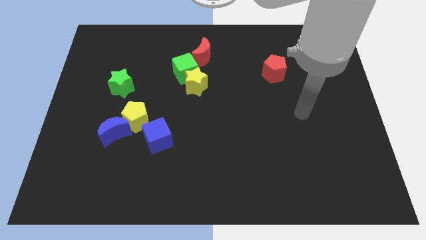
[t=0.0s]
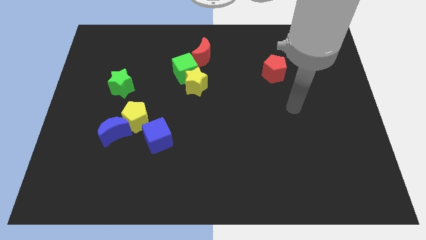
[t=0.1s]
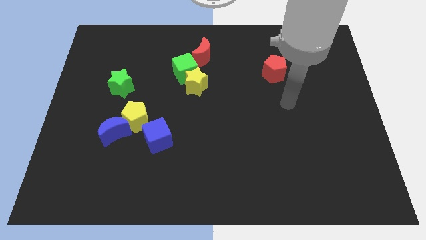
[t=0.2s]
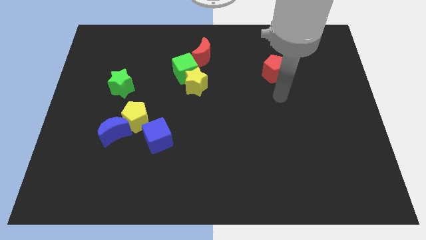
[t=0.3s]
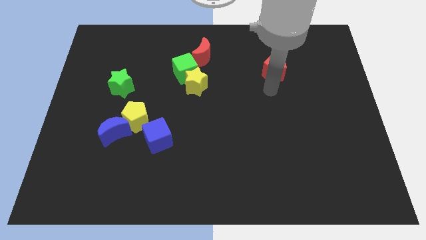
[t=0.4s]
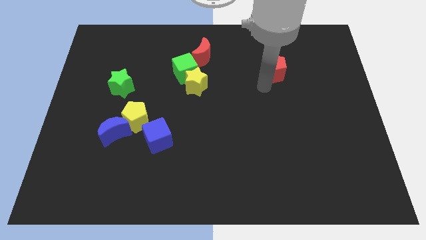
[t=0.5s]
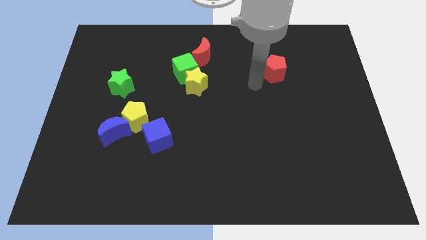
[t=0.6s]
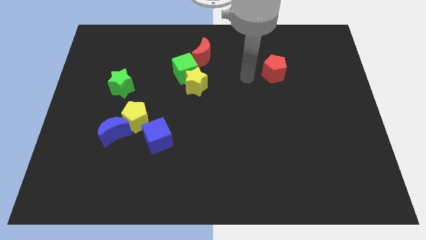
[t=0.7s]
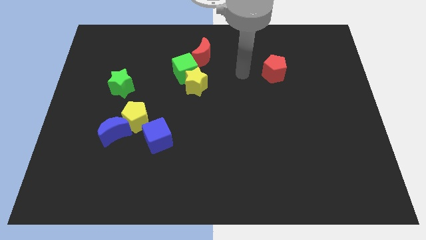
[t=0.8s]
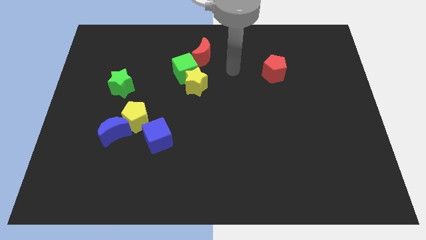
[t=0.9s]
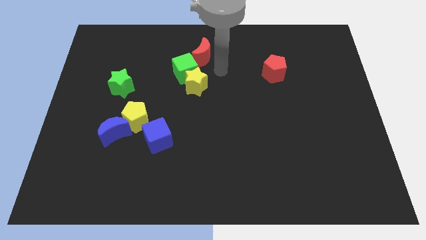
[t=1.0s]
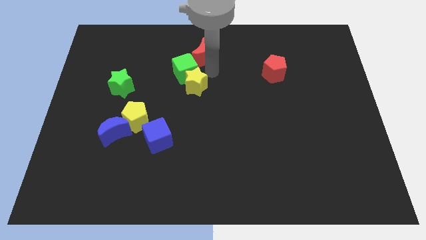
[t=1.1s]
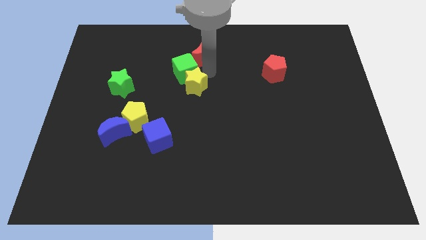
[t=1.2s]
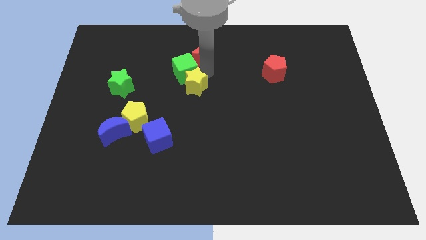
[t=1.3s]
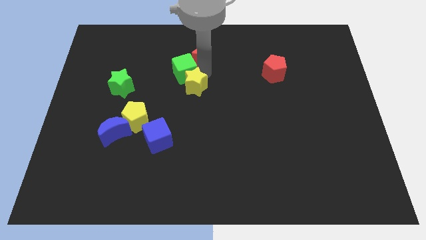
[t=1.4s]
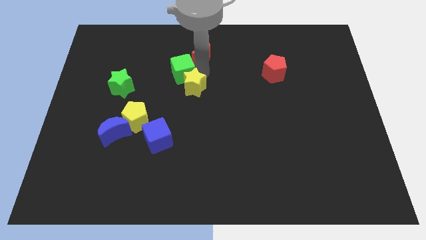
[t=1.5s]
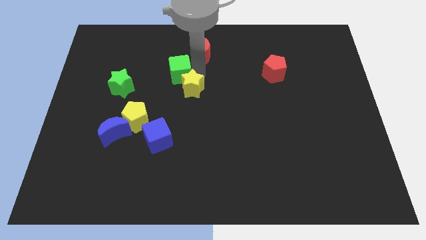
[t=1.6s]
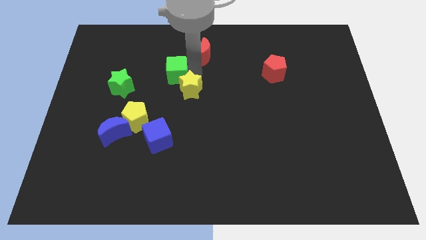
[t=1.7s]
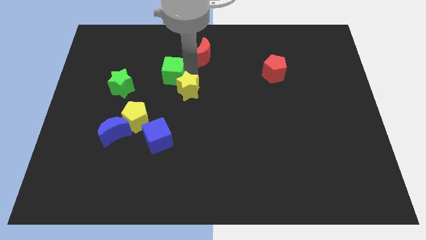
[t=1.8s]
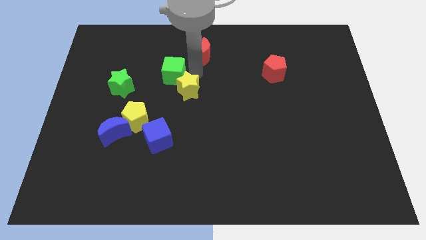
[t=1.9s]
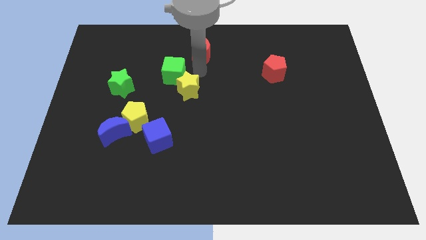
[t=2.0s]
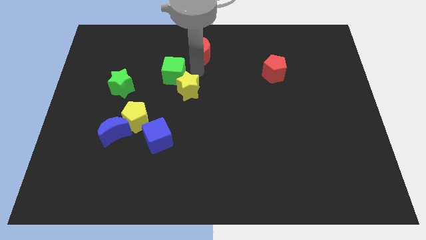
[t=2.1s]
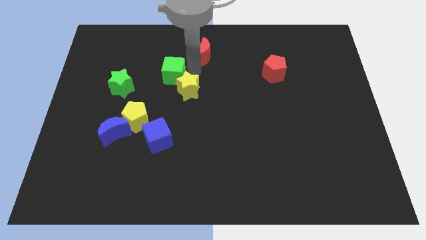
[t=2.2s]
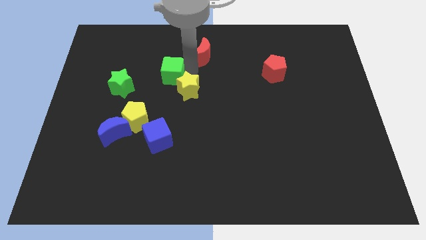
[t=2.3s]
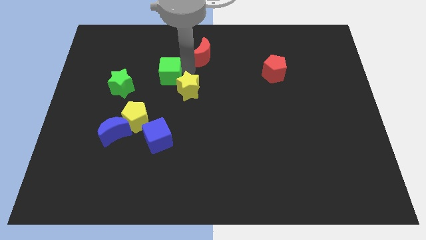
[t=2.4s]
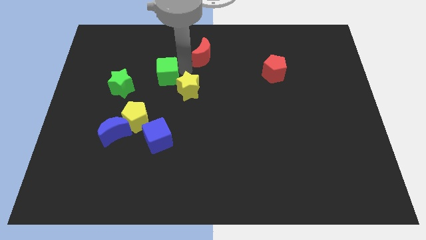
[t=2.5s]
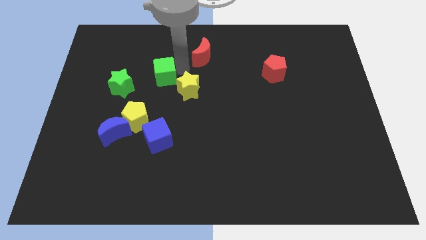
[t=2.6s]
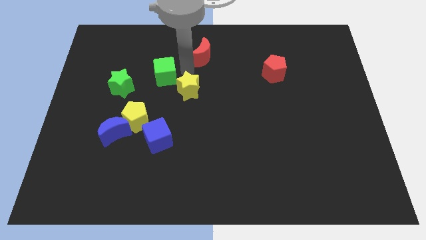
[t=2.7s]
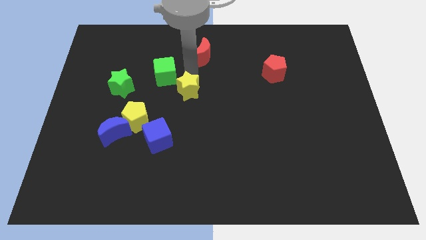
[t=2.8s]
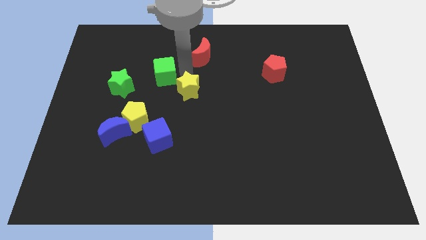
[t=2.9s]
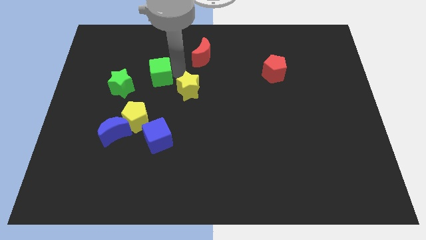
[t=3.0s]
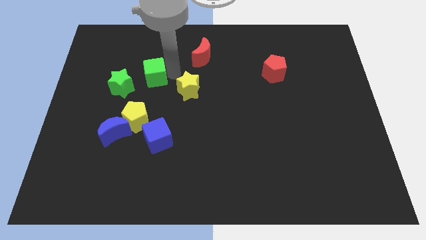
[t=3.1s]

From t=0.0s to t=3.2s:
move the green cube away from the yellow star and red moon

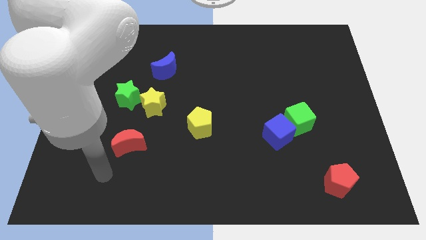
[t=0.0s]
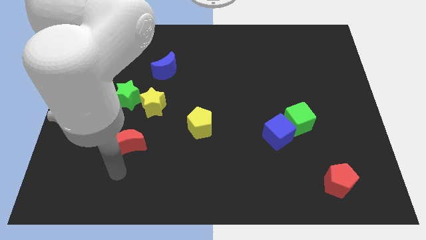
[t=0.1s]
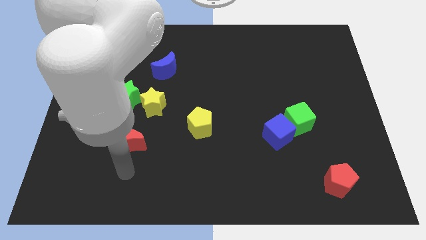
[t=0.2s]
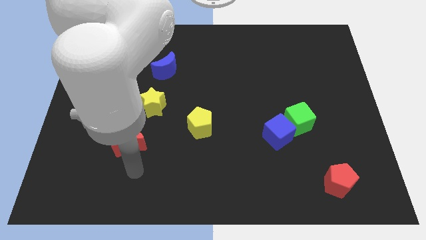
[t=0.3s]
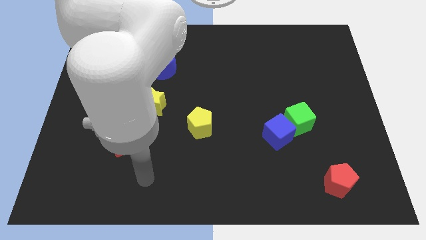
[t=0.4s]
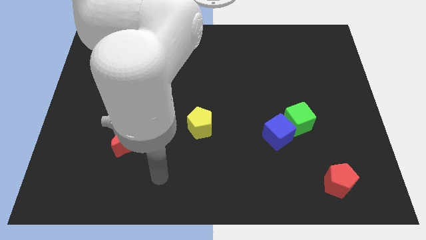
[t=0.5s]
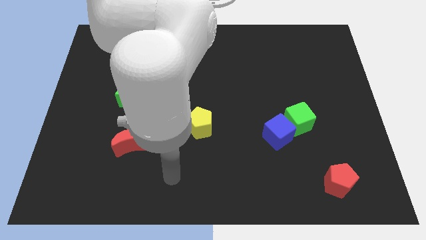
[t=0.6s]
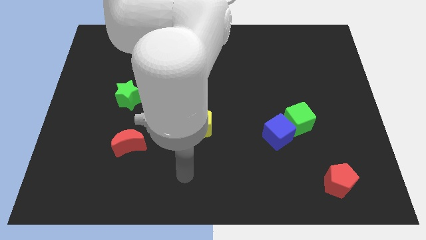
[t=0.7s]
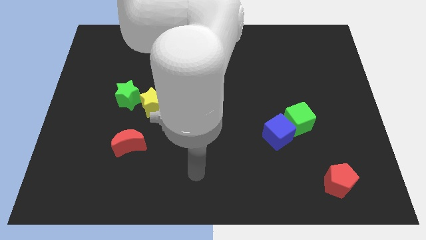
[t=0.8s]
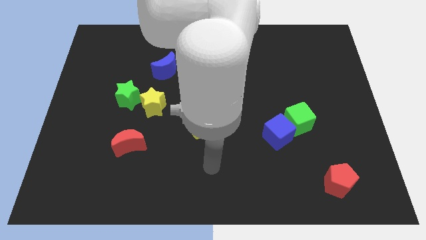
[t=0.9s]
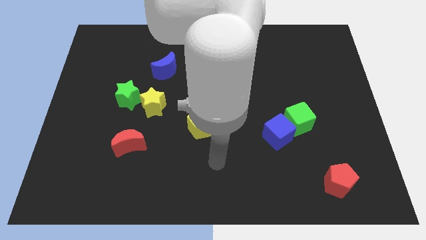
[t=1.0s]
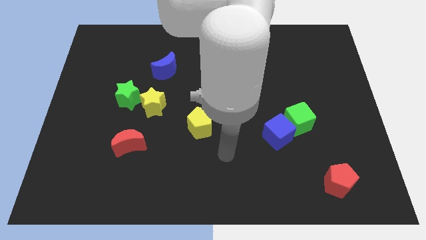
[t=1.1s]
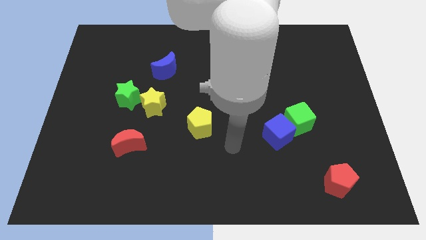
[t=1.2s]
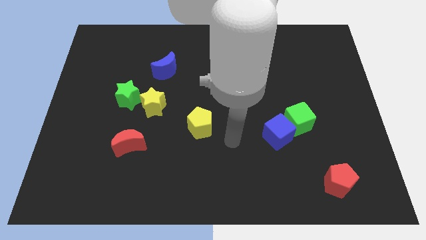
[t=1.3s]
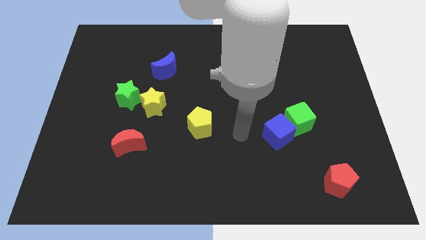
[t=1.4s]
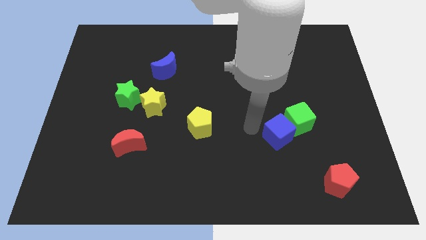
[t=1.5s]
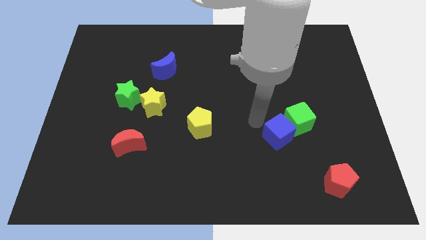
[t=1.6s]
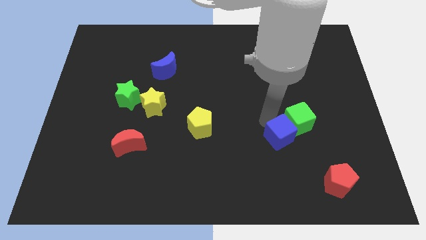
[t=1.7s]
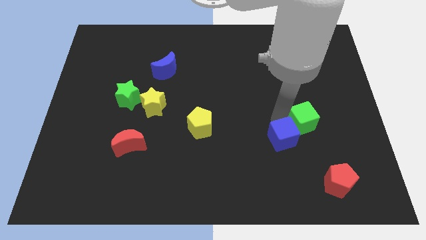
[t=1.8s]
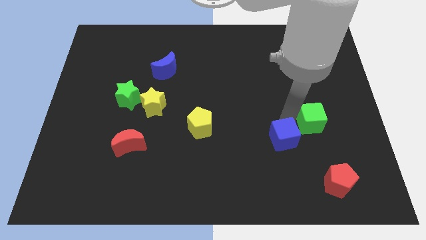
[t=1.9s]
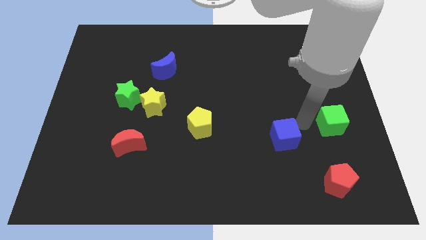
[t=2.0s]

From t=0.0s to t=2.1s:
separate the blue cube from the green cube

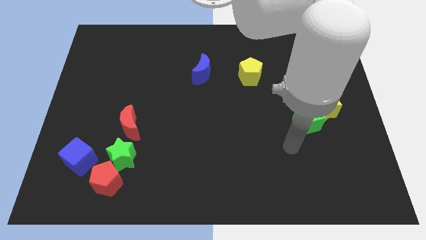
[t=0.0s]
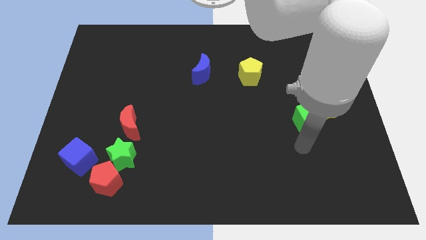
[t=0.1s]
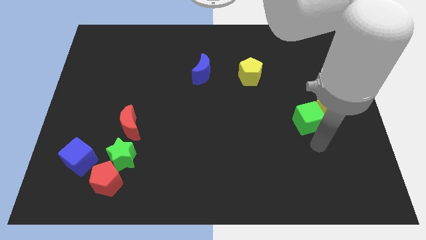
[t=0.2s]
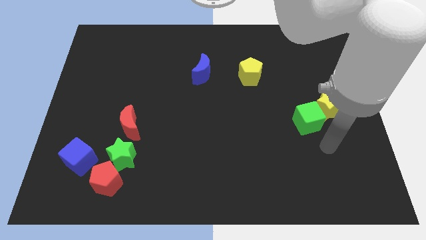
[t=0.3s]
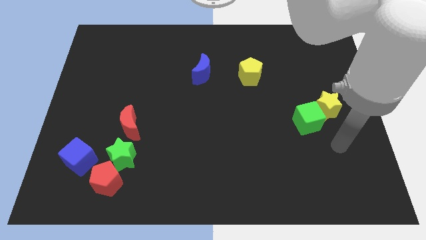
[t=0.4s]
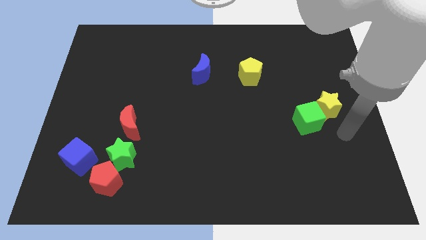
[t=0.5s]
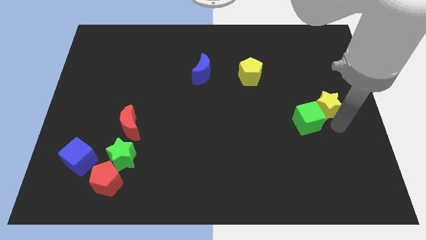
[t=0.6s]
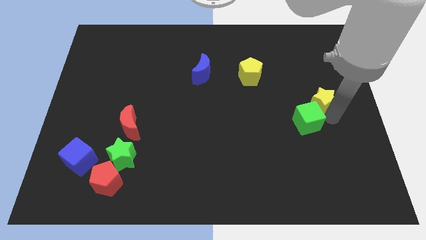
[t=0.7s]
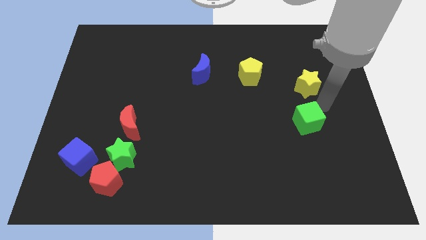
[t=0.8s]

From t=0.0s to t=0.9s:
separate the green cube from the yellow star

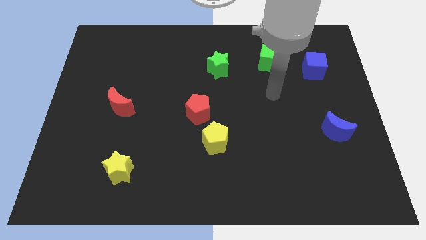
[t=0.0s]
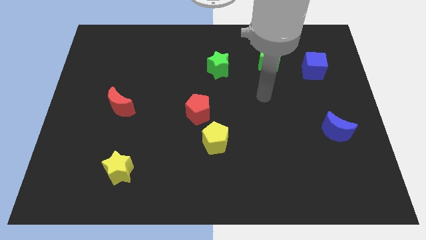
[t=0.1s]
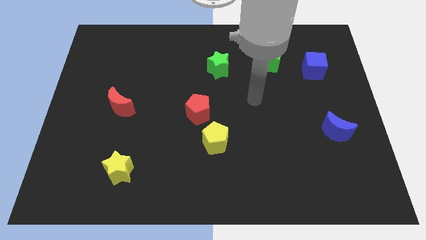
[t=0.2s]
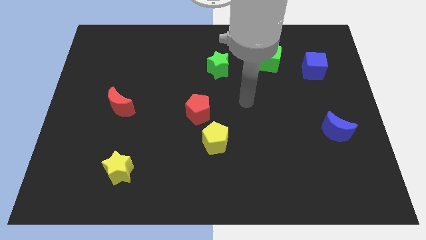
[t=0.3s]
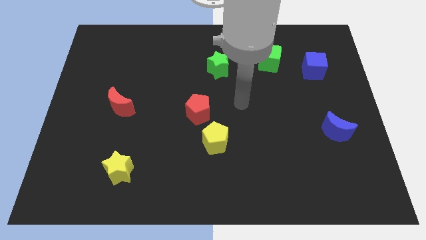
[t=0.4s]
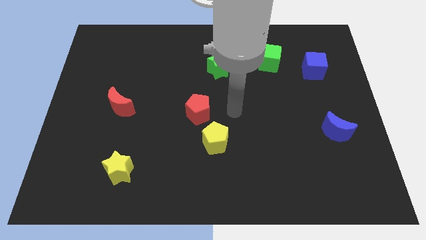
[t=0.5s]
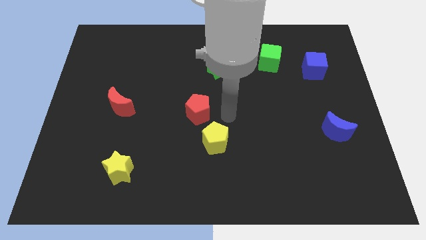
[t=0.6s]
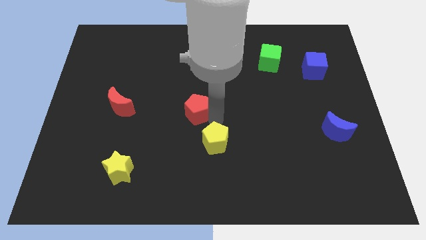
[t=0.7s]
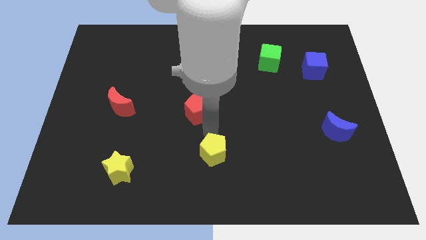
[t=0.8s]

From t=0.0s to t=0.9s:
move the red pentagon away from the yellow pentagon

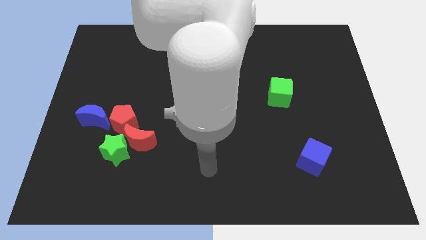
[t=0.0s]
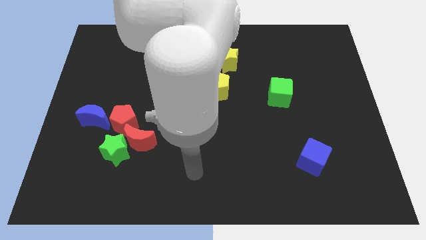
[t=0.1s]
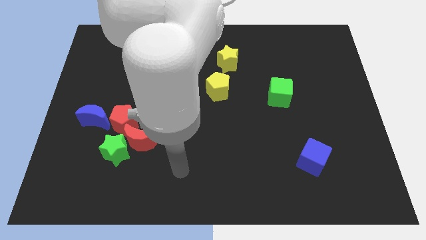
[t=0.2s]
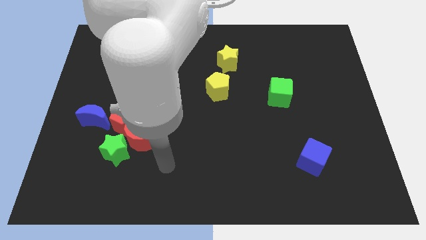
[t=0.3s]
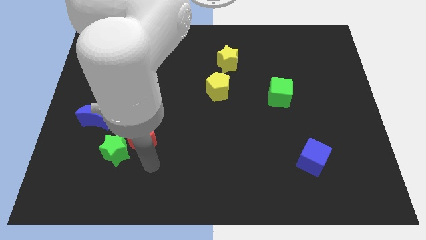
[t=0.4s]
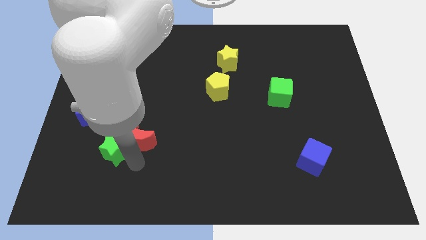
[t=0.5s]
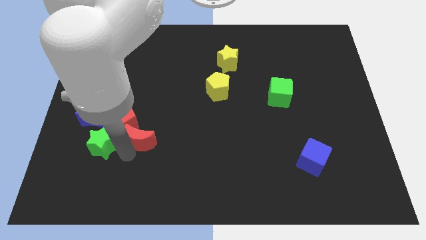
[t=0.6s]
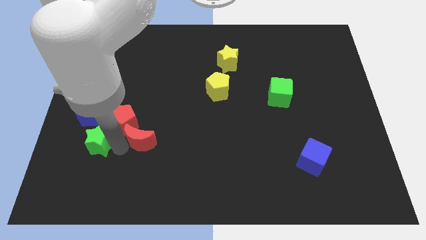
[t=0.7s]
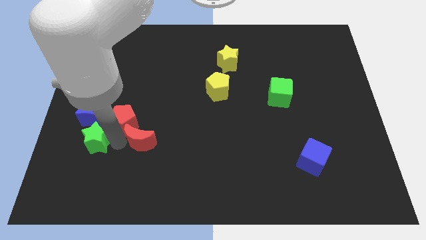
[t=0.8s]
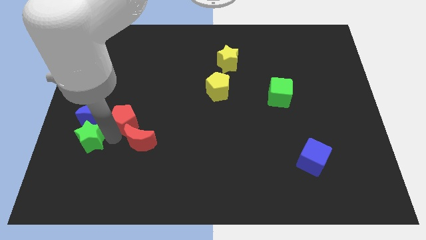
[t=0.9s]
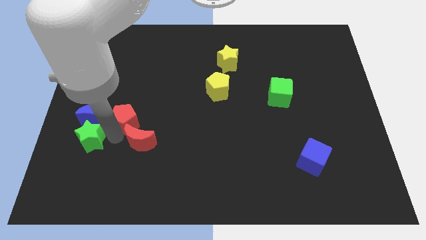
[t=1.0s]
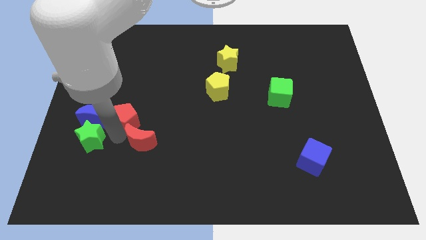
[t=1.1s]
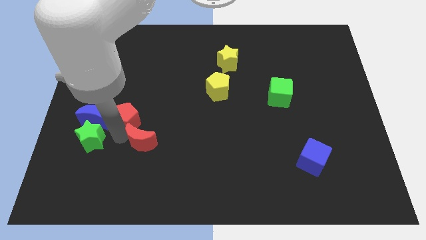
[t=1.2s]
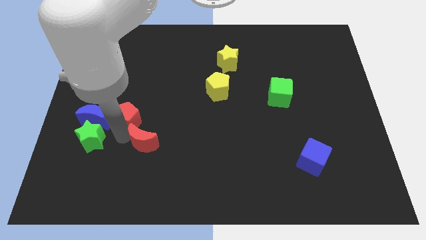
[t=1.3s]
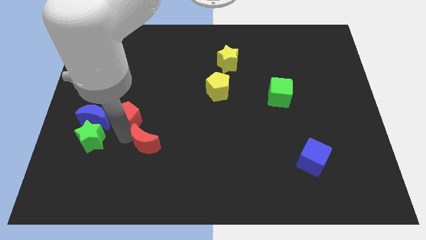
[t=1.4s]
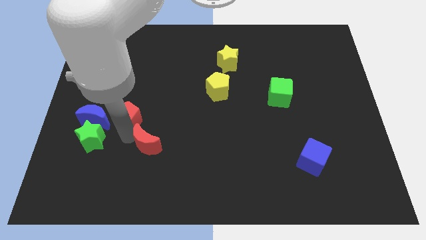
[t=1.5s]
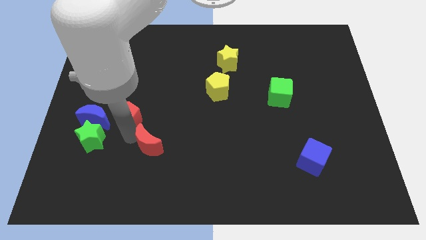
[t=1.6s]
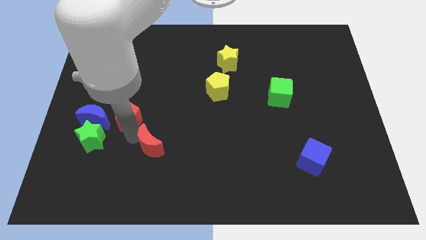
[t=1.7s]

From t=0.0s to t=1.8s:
move the red moon away from the green star and red pentagon

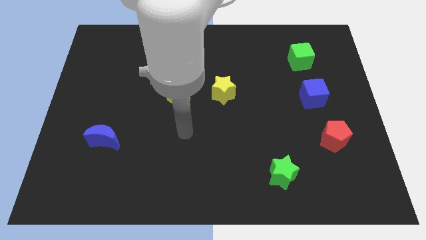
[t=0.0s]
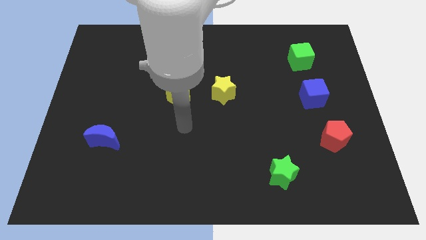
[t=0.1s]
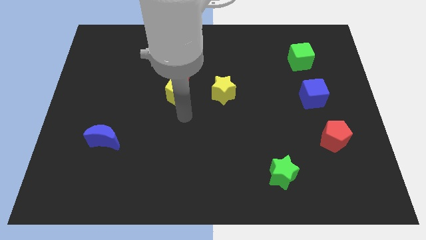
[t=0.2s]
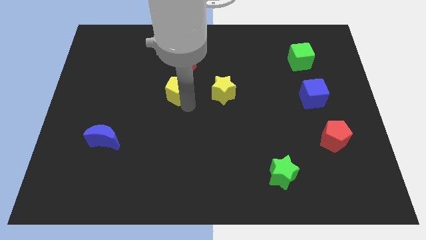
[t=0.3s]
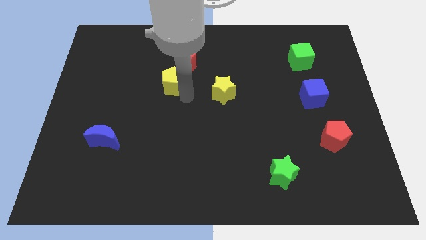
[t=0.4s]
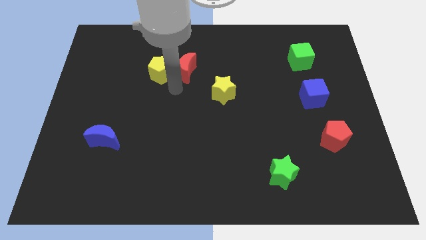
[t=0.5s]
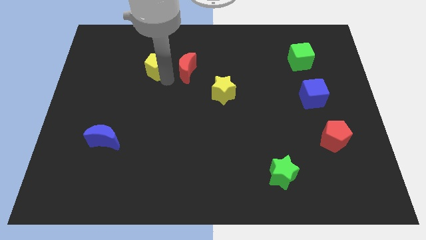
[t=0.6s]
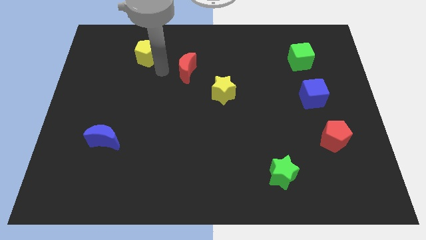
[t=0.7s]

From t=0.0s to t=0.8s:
pull the red moon apart from the yellow pentagon
